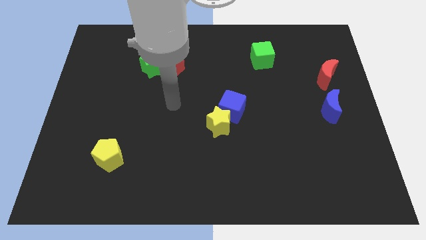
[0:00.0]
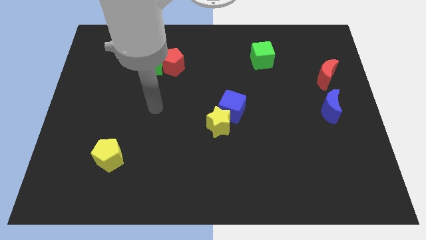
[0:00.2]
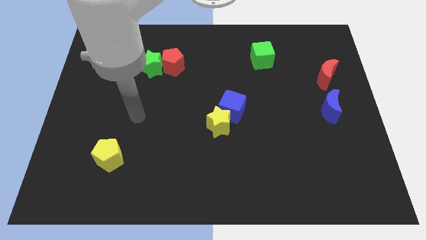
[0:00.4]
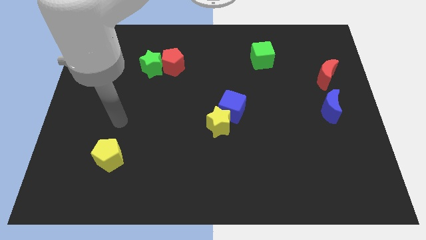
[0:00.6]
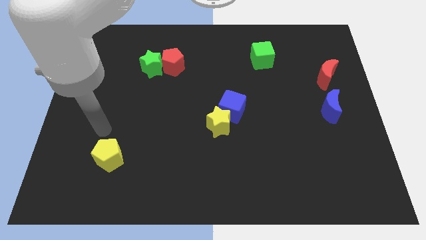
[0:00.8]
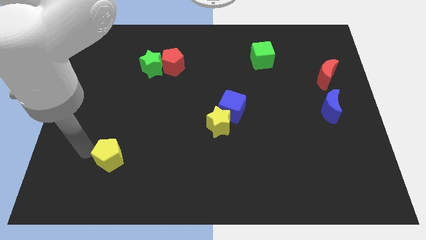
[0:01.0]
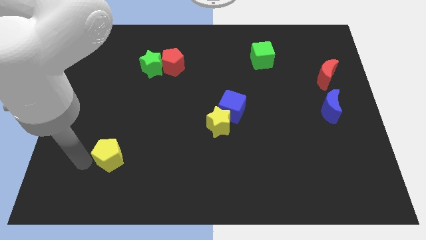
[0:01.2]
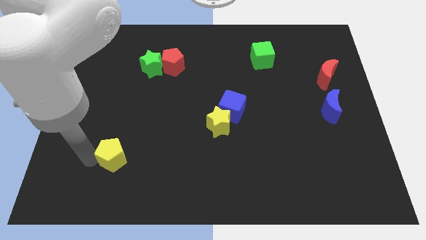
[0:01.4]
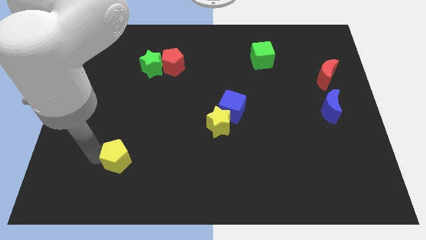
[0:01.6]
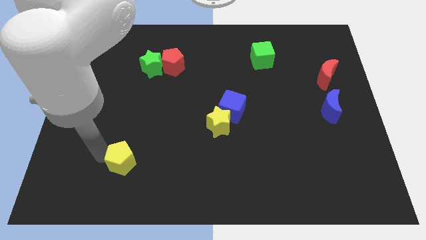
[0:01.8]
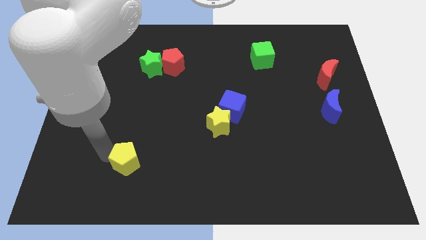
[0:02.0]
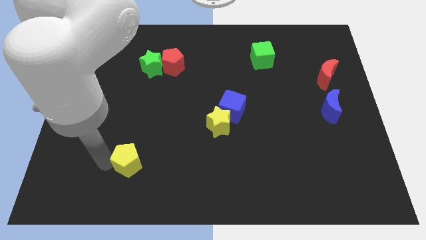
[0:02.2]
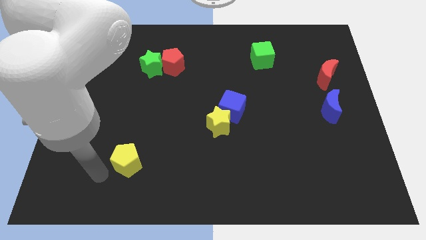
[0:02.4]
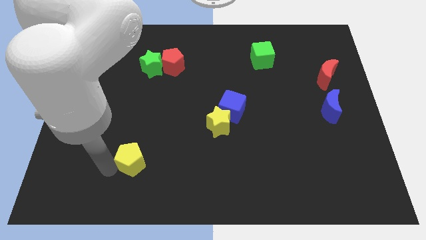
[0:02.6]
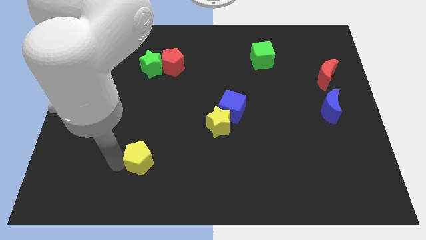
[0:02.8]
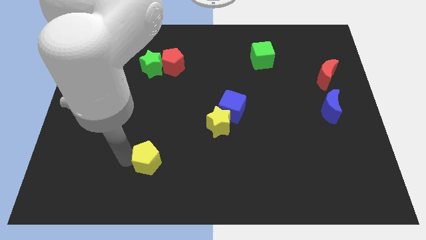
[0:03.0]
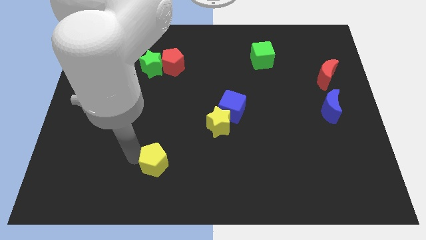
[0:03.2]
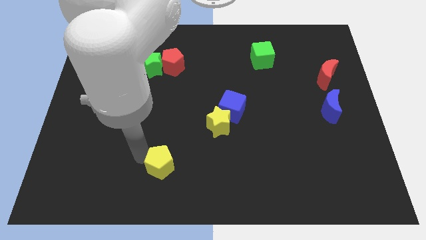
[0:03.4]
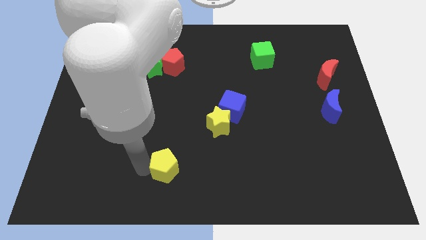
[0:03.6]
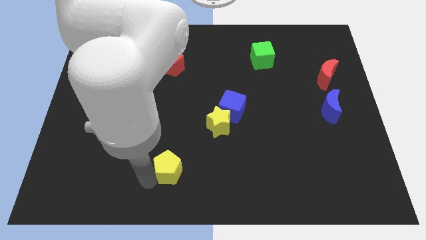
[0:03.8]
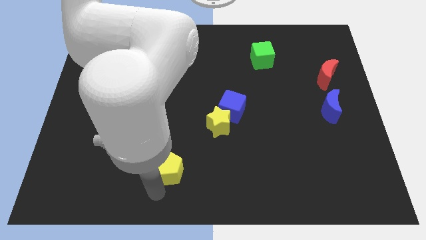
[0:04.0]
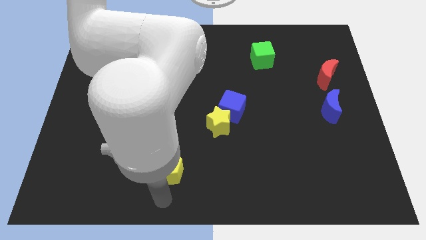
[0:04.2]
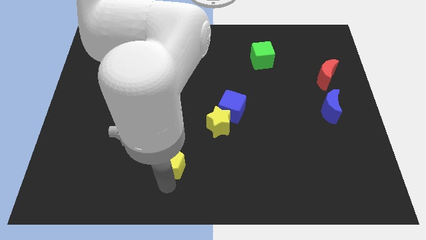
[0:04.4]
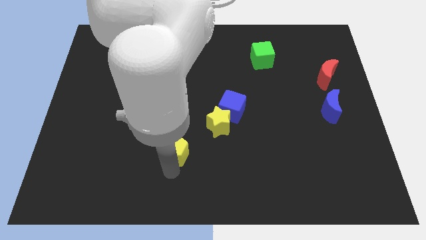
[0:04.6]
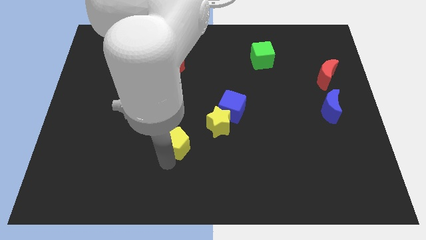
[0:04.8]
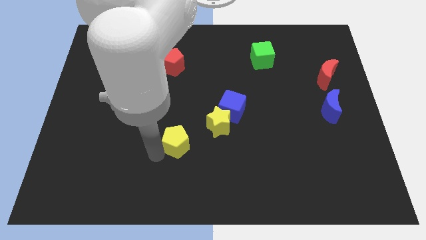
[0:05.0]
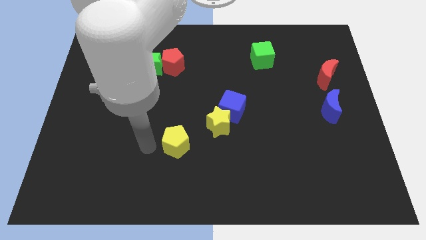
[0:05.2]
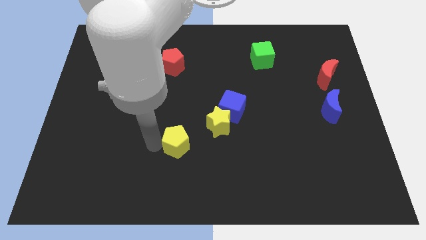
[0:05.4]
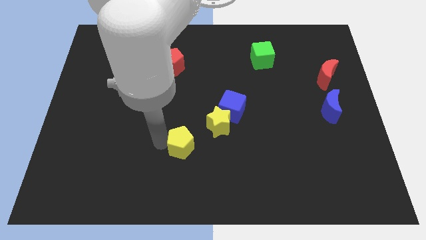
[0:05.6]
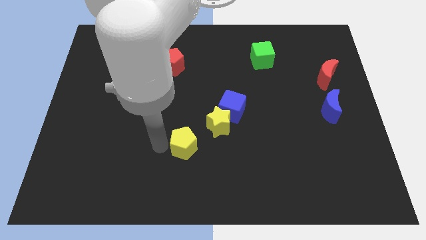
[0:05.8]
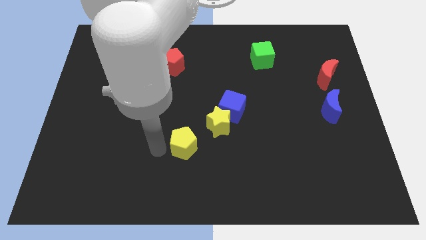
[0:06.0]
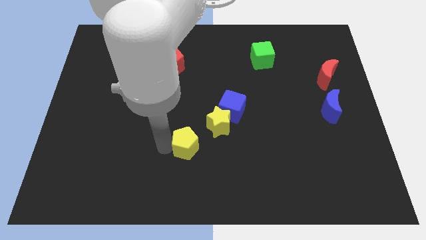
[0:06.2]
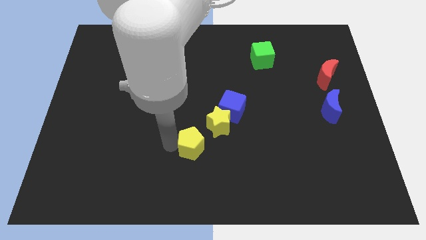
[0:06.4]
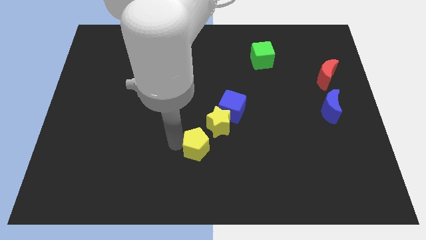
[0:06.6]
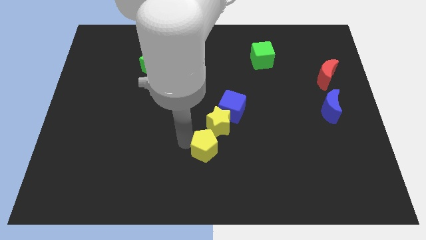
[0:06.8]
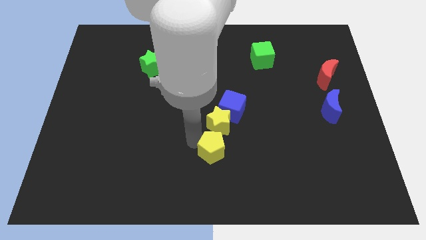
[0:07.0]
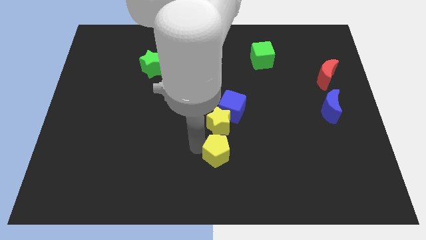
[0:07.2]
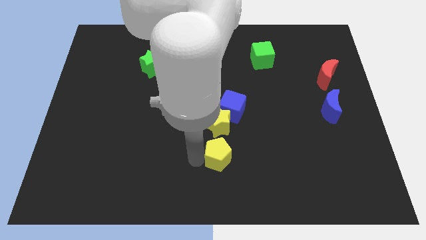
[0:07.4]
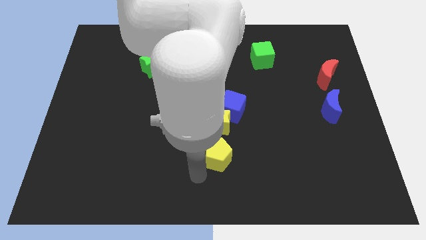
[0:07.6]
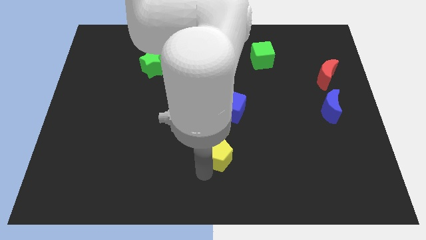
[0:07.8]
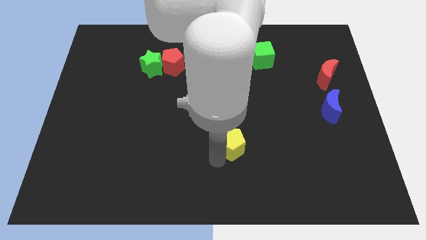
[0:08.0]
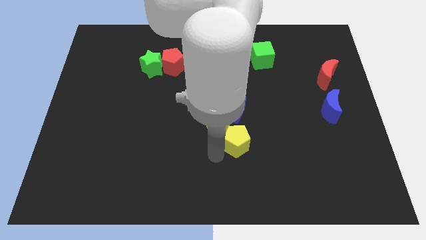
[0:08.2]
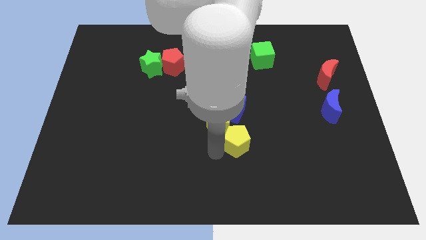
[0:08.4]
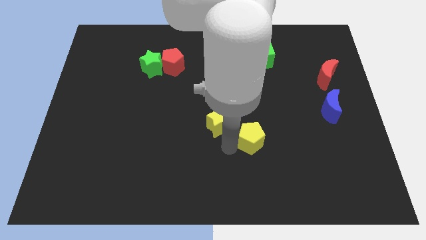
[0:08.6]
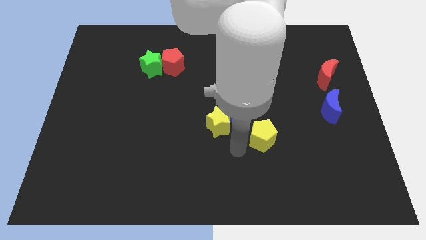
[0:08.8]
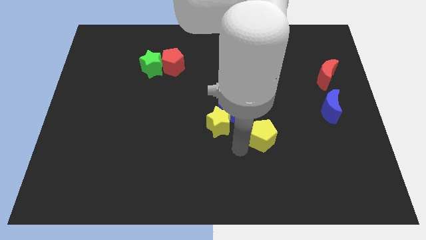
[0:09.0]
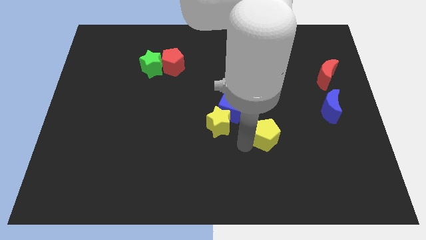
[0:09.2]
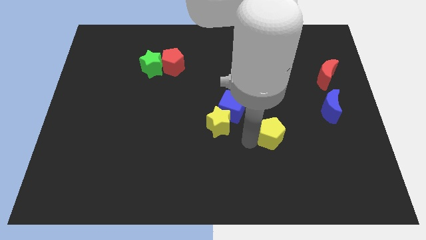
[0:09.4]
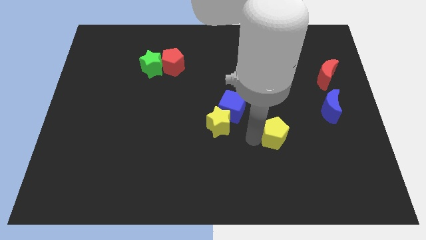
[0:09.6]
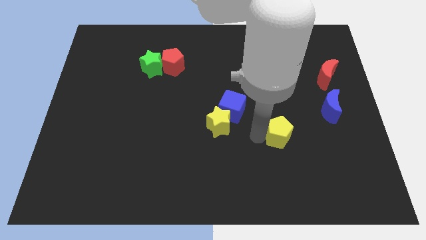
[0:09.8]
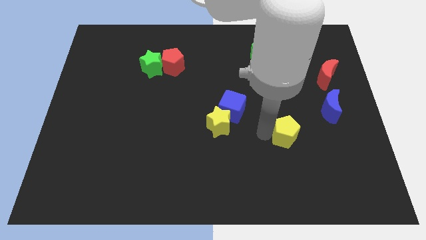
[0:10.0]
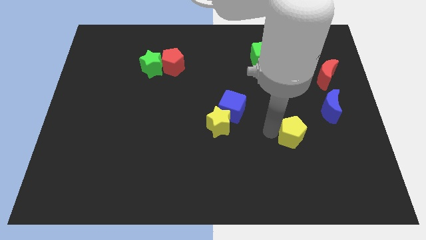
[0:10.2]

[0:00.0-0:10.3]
push the yellow pentagon to the bottom left of the blue moon
